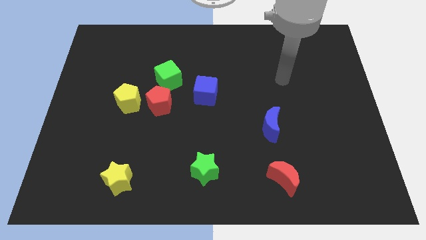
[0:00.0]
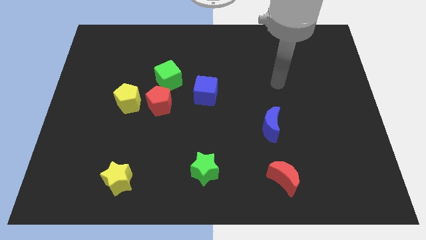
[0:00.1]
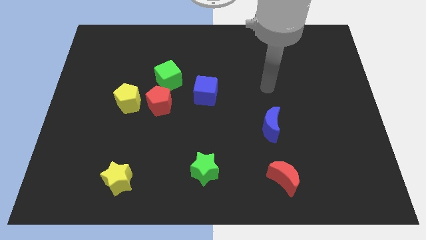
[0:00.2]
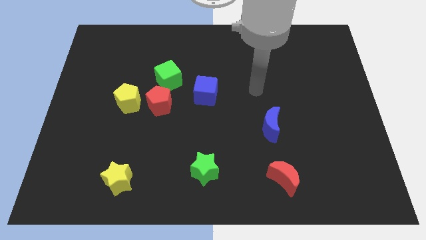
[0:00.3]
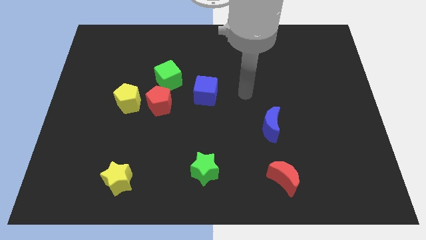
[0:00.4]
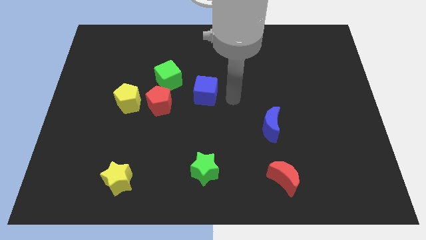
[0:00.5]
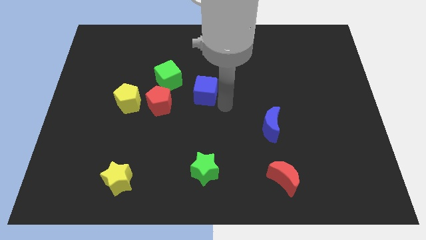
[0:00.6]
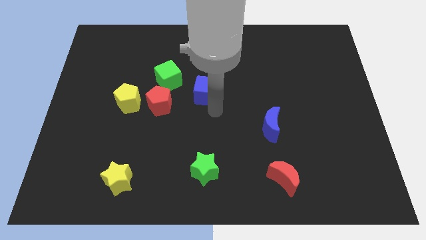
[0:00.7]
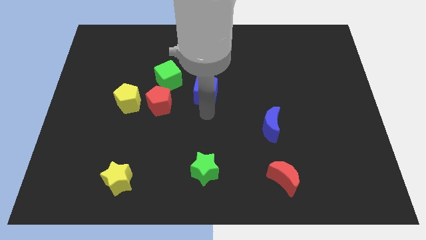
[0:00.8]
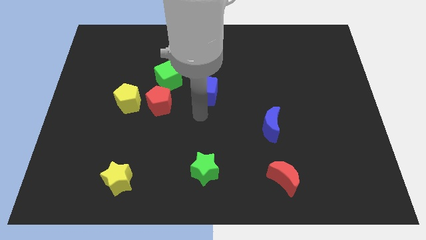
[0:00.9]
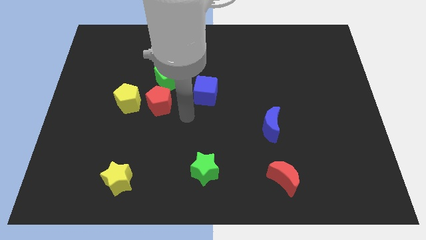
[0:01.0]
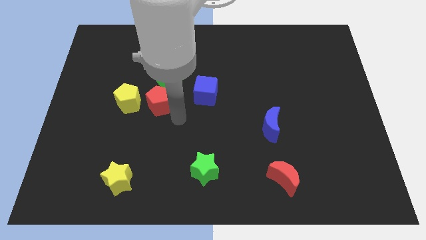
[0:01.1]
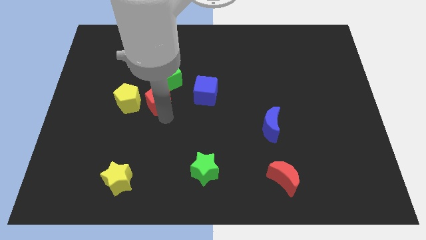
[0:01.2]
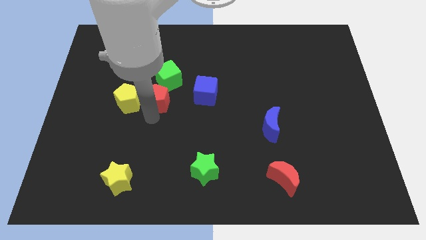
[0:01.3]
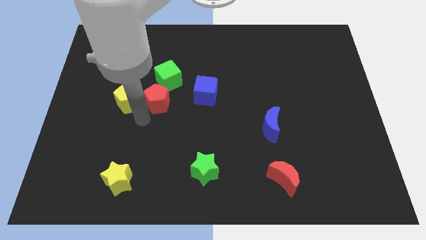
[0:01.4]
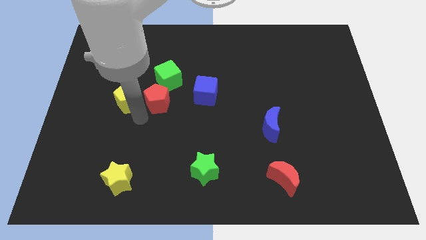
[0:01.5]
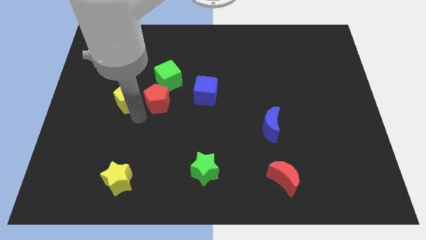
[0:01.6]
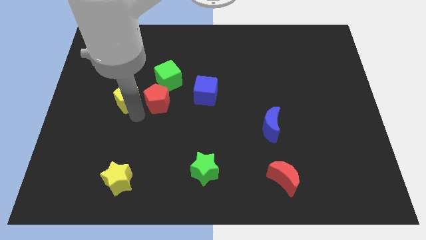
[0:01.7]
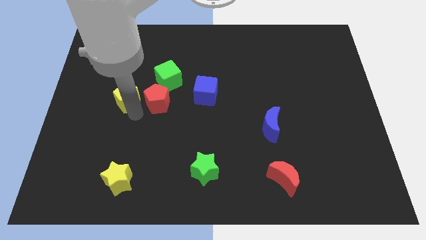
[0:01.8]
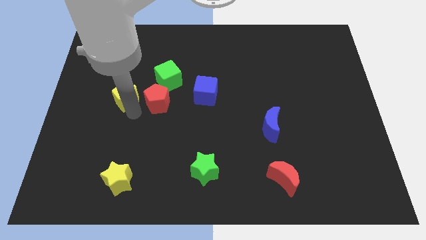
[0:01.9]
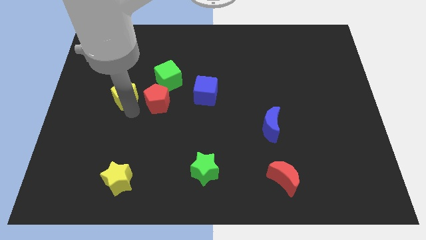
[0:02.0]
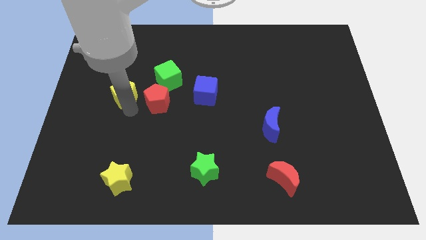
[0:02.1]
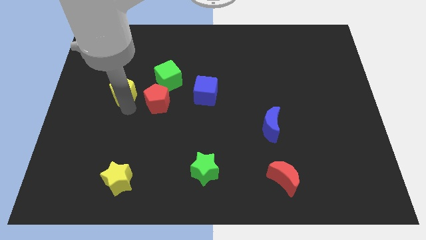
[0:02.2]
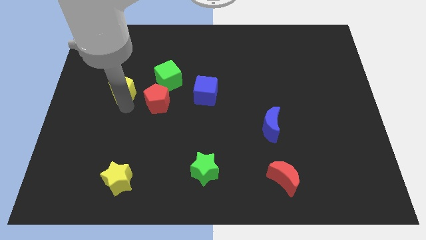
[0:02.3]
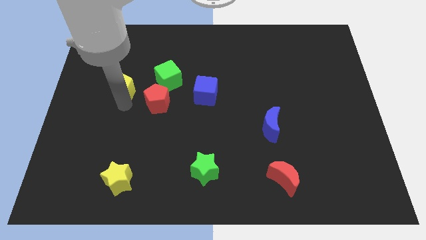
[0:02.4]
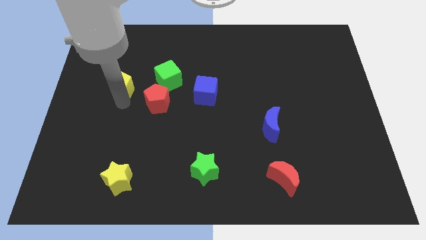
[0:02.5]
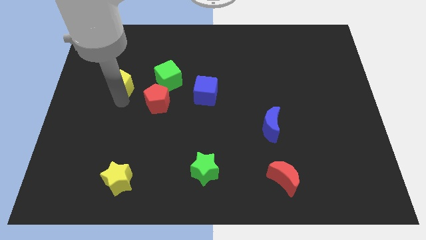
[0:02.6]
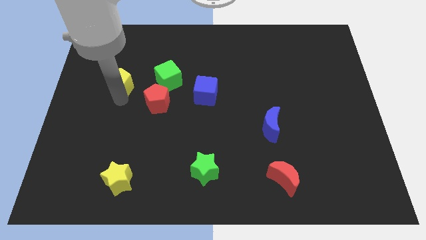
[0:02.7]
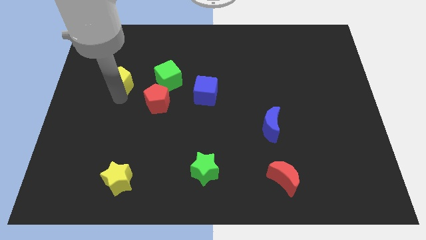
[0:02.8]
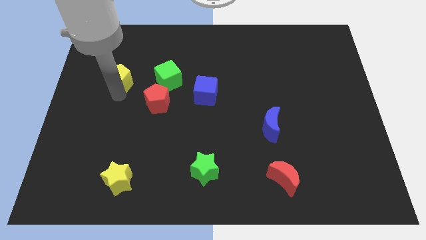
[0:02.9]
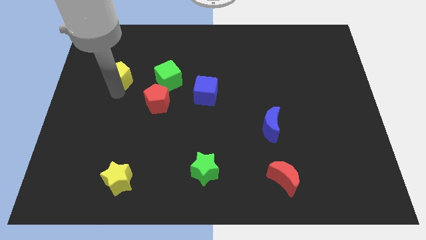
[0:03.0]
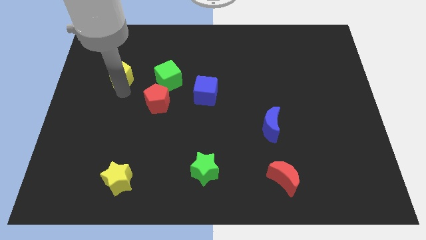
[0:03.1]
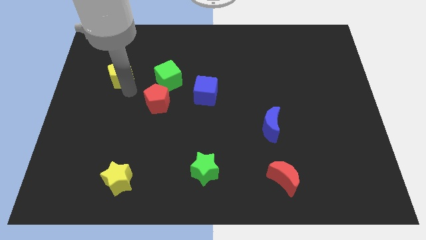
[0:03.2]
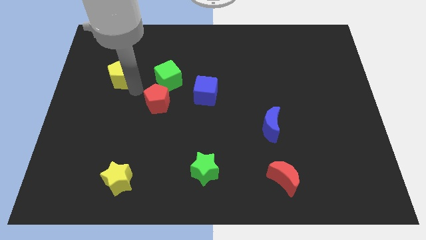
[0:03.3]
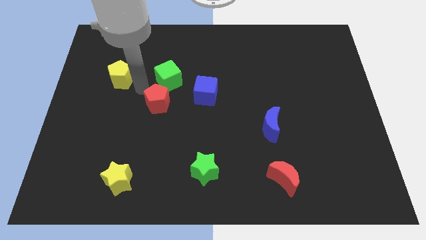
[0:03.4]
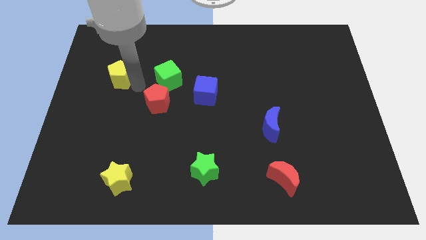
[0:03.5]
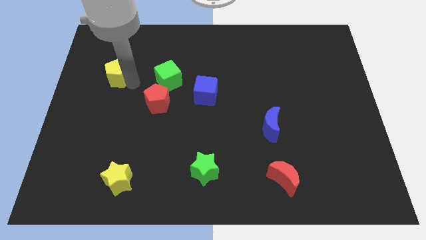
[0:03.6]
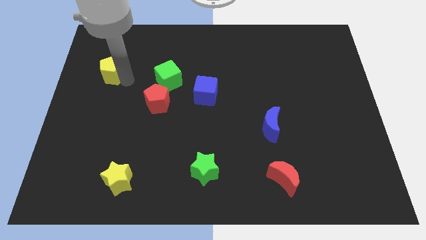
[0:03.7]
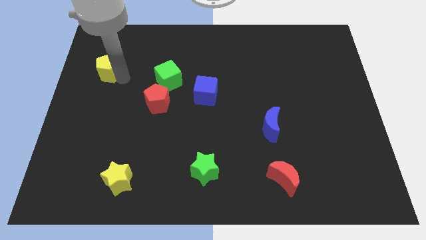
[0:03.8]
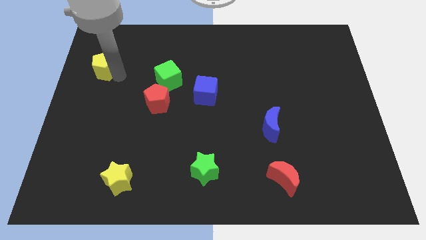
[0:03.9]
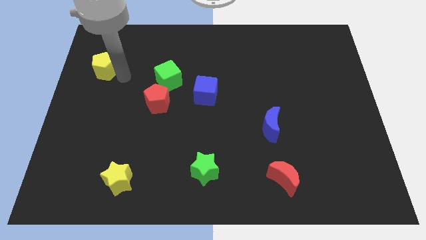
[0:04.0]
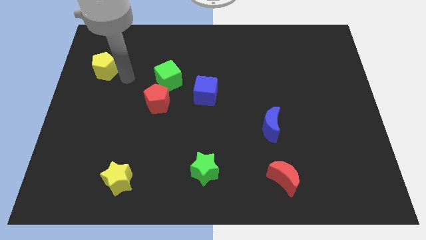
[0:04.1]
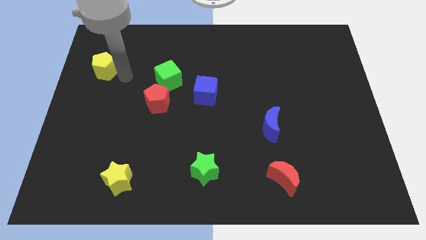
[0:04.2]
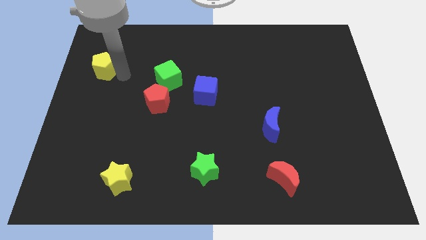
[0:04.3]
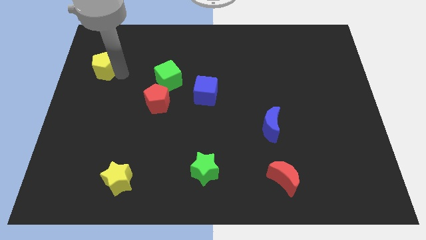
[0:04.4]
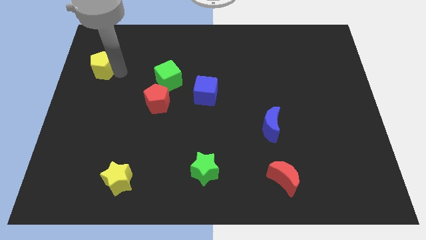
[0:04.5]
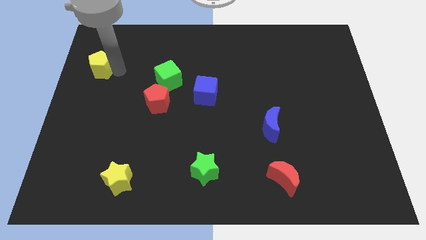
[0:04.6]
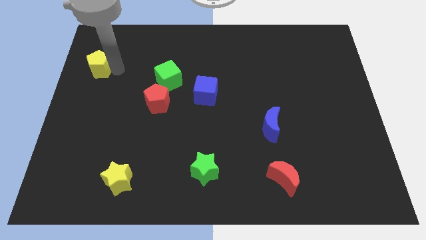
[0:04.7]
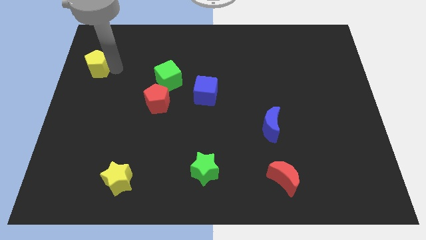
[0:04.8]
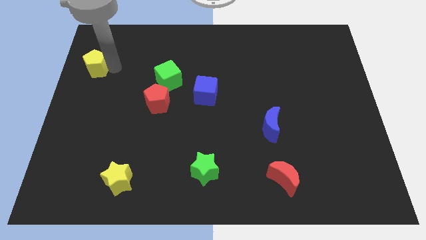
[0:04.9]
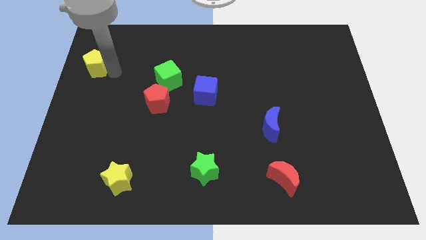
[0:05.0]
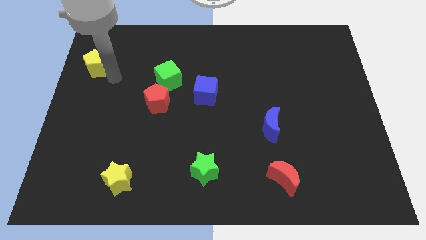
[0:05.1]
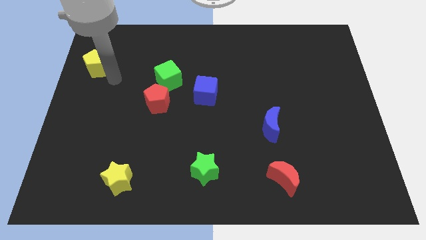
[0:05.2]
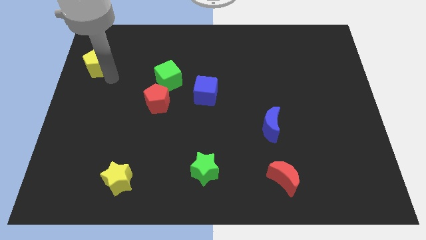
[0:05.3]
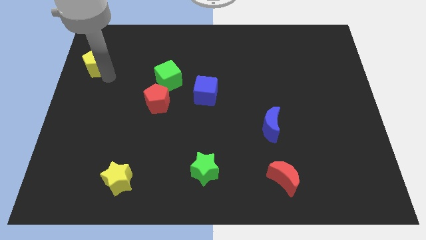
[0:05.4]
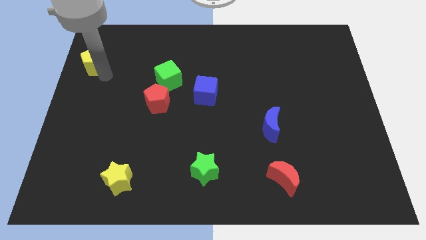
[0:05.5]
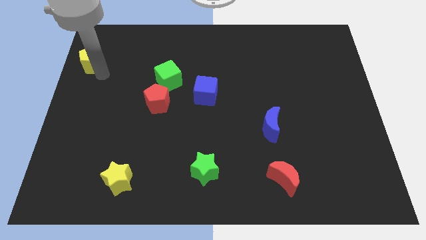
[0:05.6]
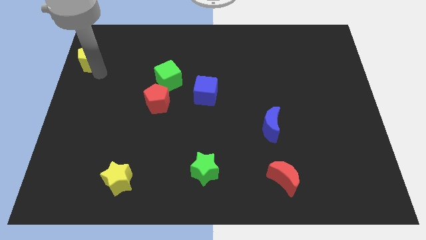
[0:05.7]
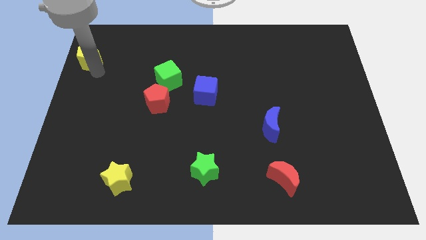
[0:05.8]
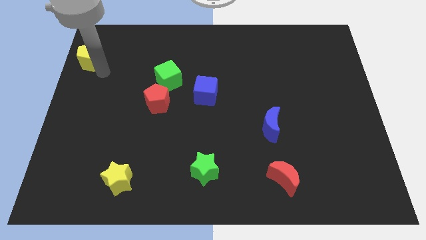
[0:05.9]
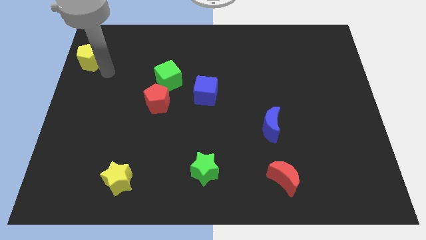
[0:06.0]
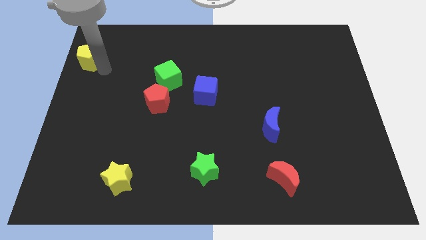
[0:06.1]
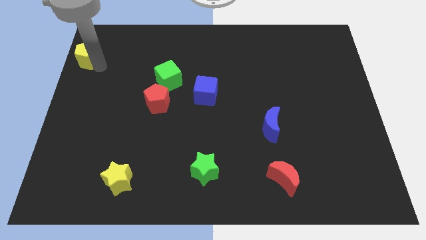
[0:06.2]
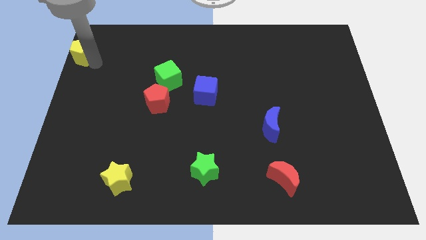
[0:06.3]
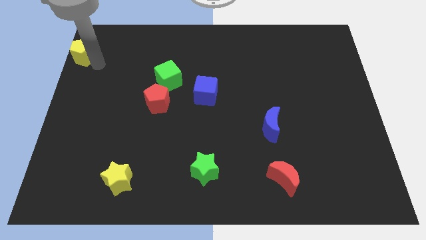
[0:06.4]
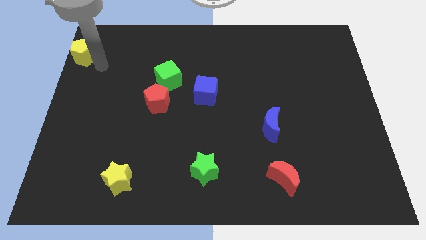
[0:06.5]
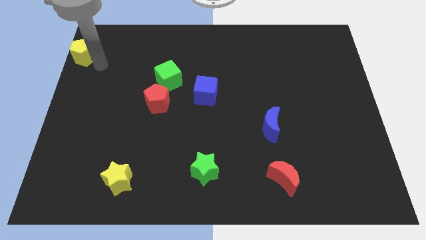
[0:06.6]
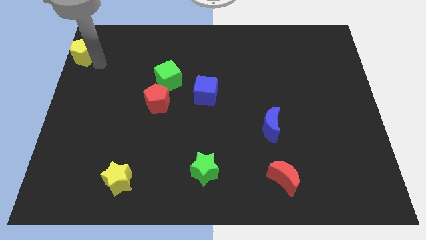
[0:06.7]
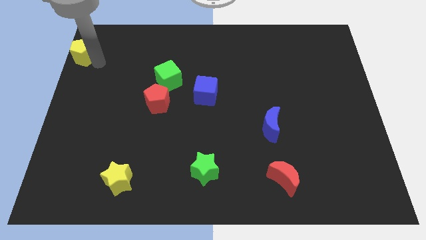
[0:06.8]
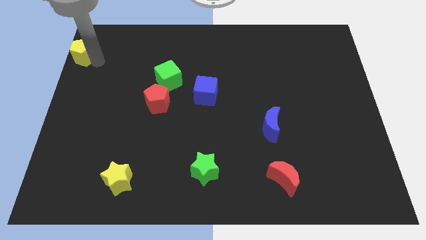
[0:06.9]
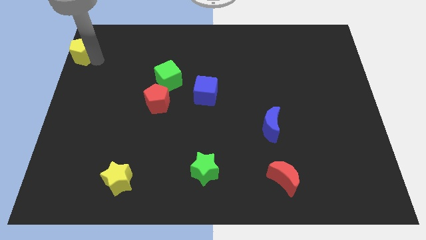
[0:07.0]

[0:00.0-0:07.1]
put the yellow pentagon to the upper left corner

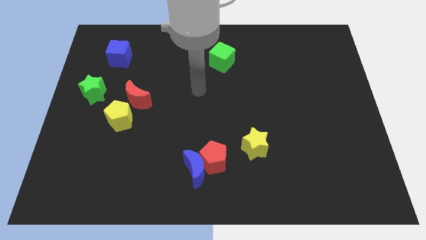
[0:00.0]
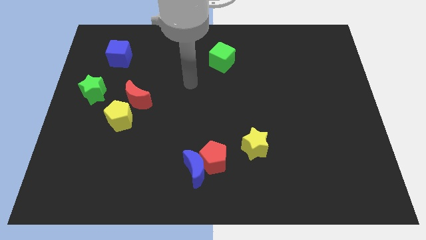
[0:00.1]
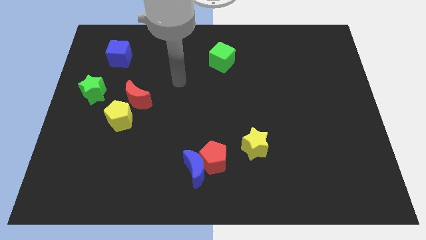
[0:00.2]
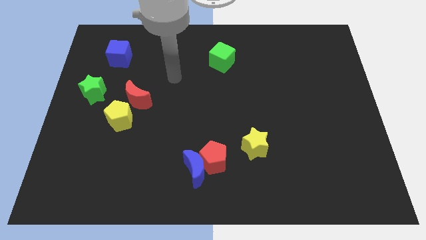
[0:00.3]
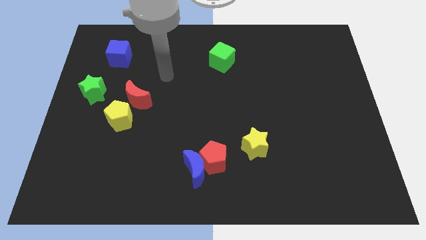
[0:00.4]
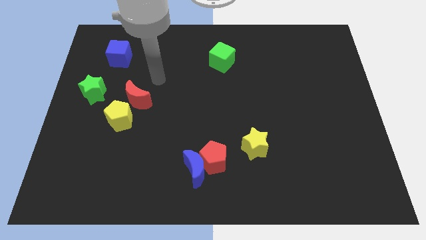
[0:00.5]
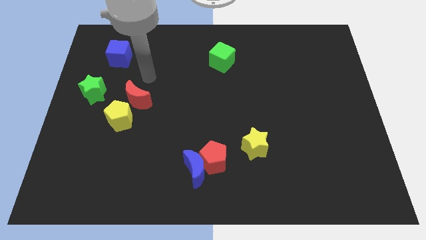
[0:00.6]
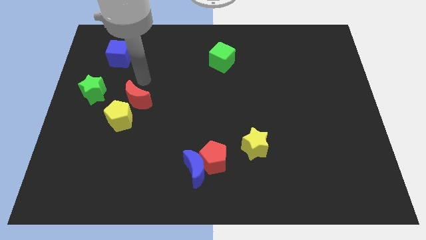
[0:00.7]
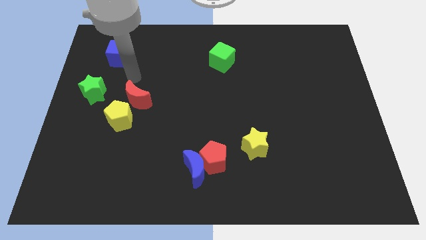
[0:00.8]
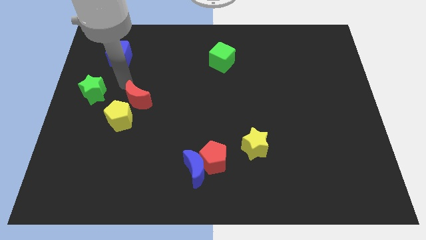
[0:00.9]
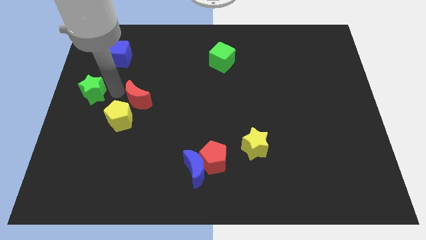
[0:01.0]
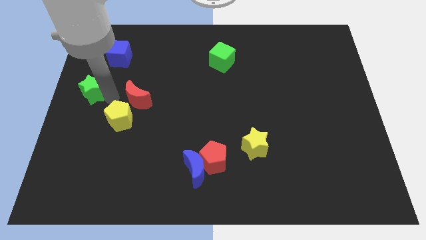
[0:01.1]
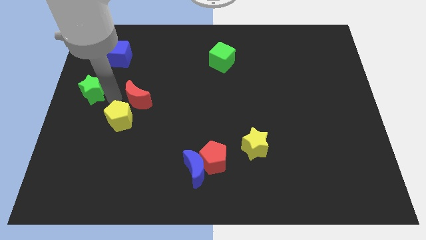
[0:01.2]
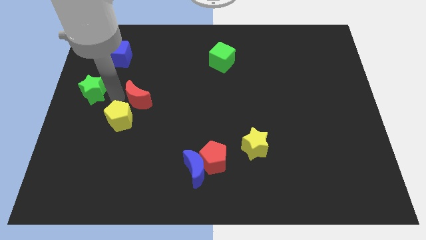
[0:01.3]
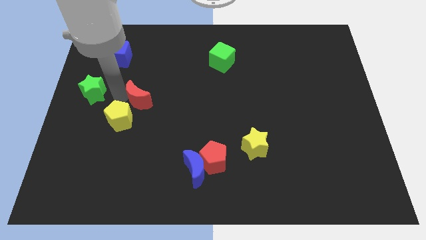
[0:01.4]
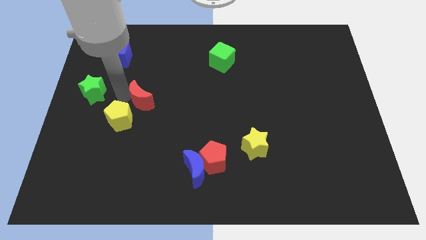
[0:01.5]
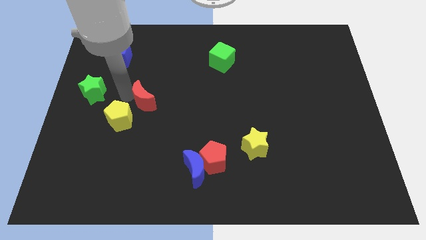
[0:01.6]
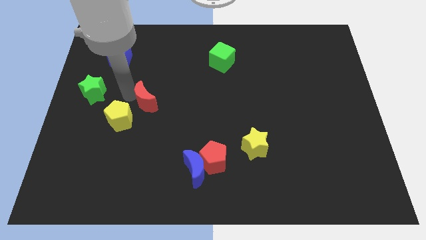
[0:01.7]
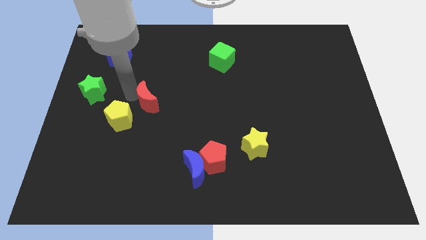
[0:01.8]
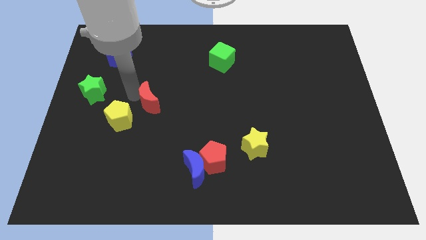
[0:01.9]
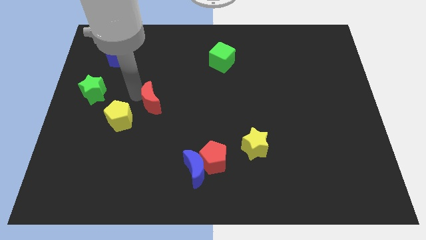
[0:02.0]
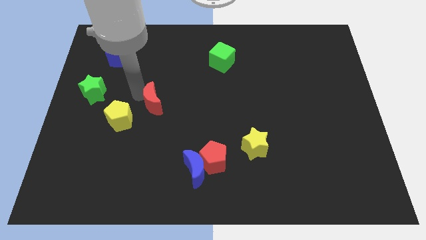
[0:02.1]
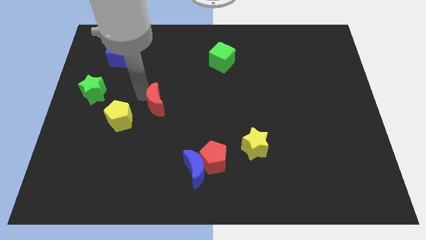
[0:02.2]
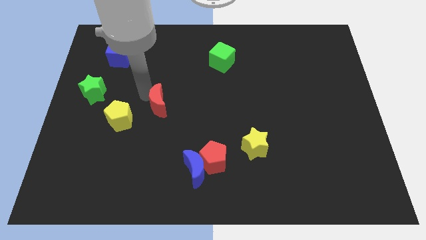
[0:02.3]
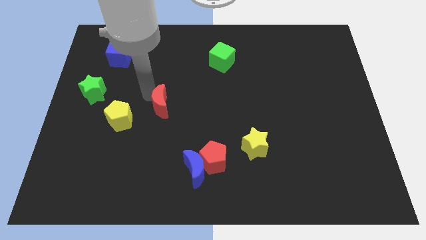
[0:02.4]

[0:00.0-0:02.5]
move the red moon to the center
